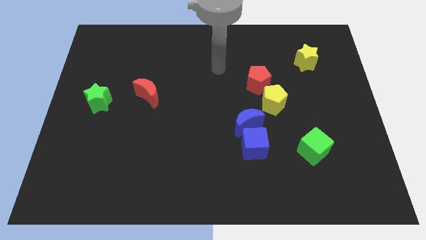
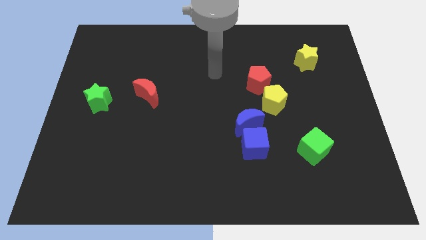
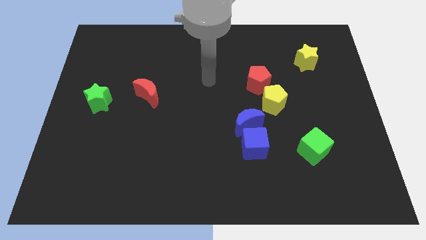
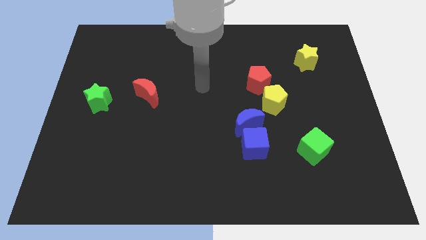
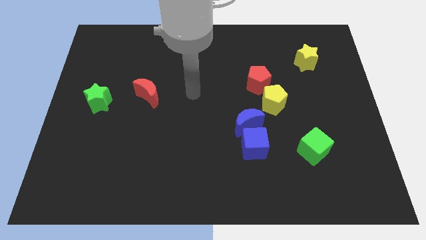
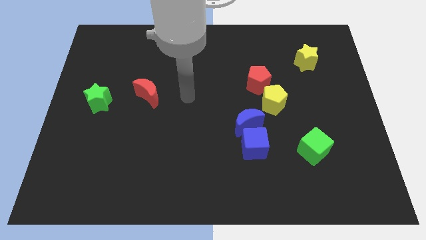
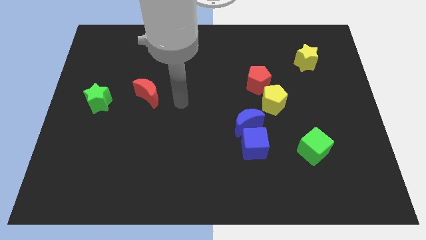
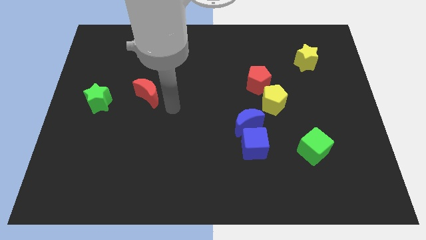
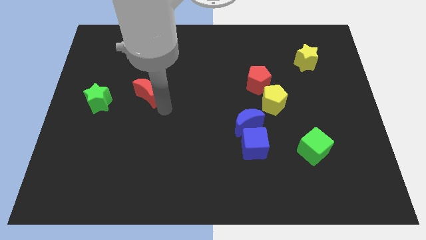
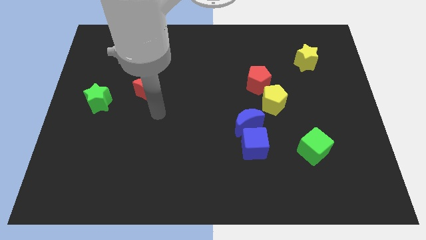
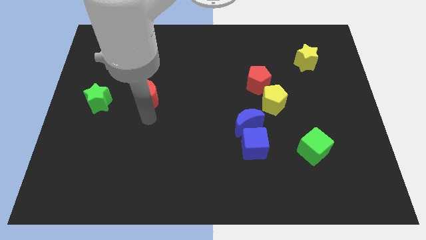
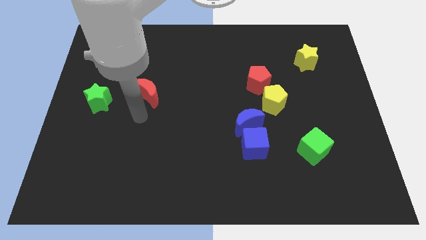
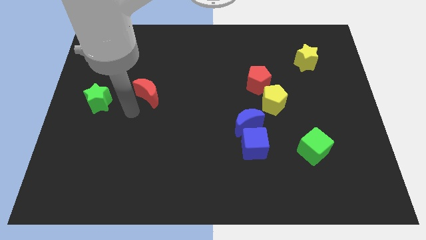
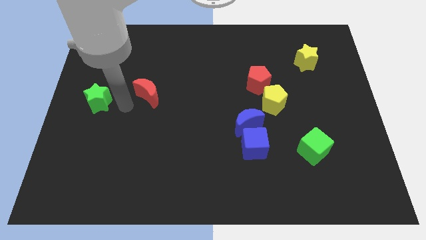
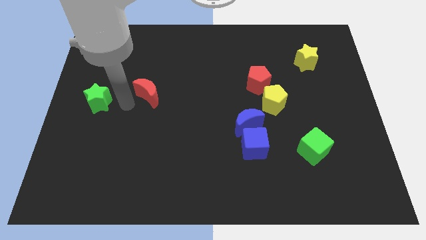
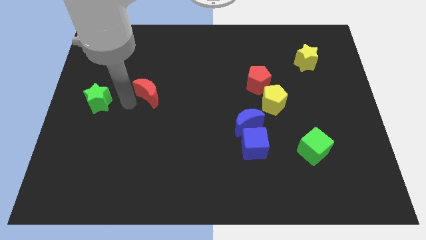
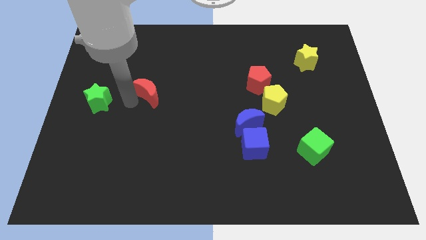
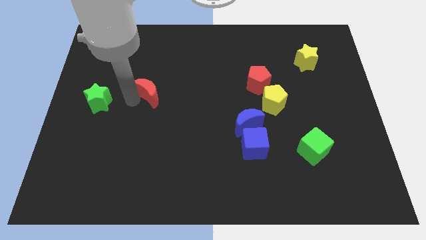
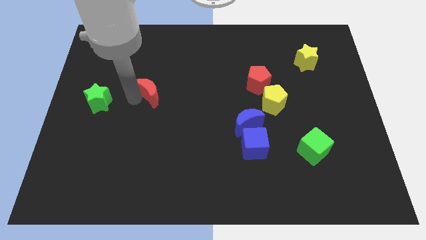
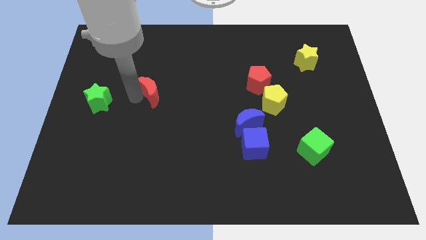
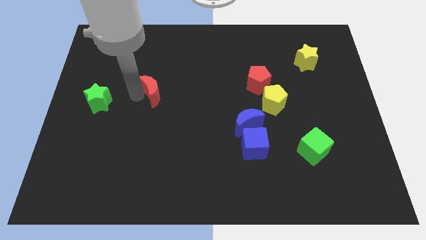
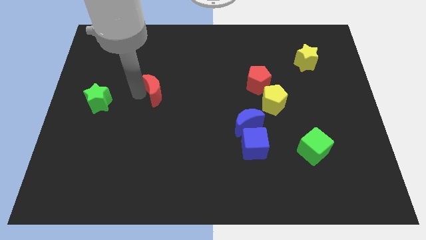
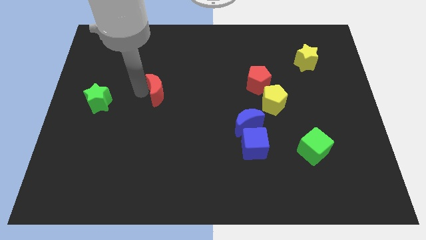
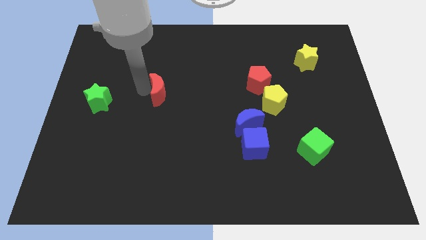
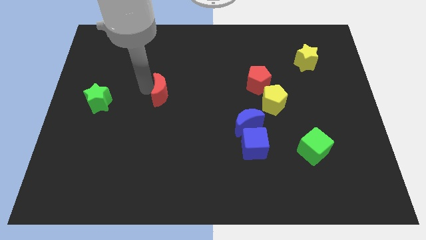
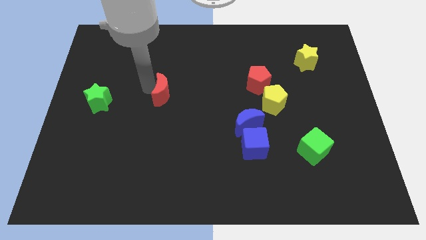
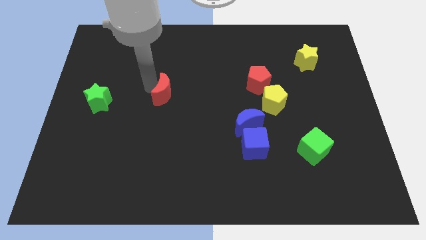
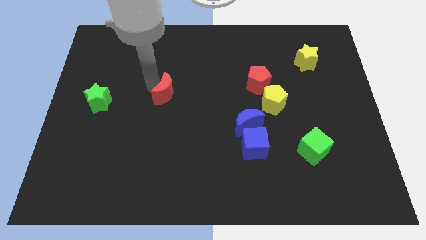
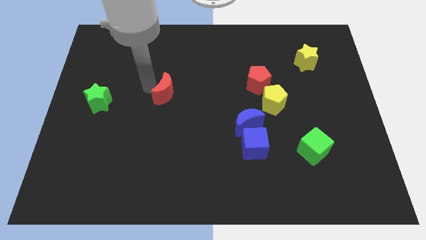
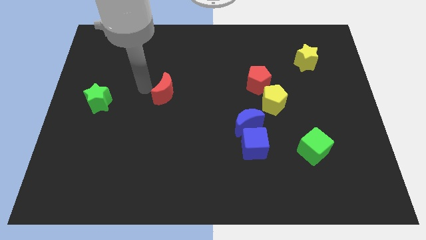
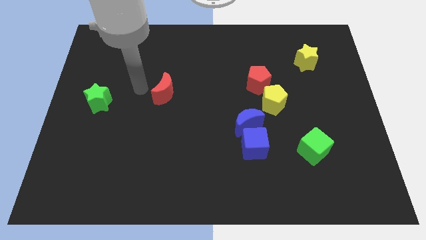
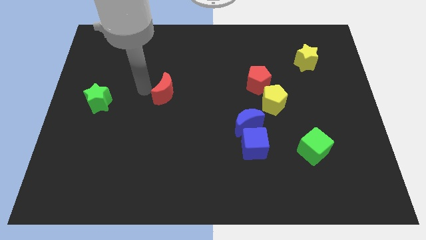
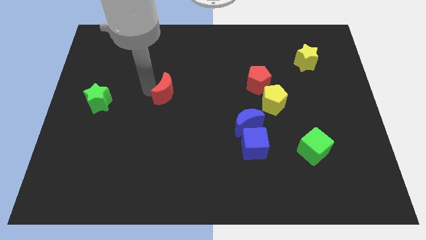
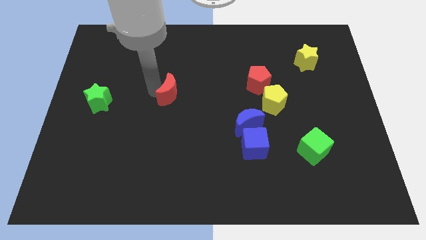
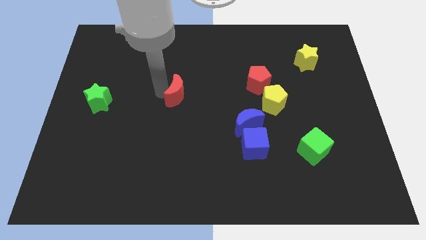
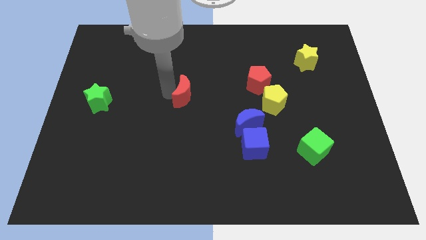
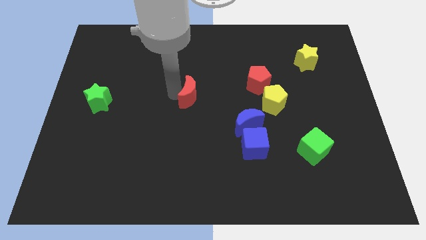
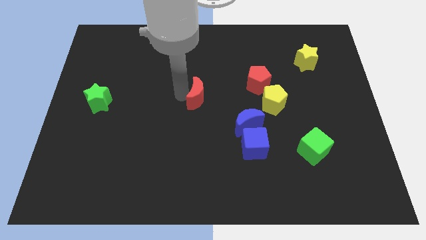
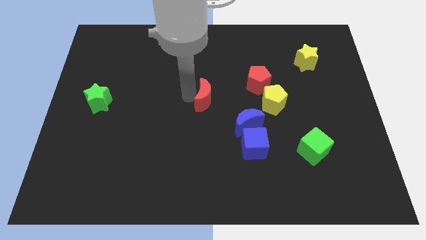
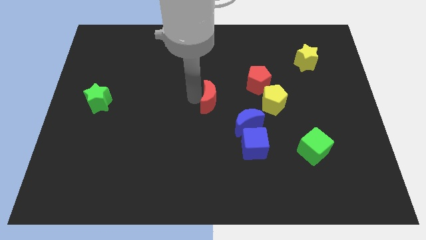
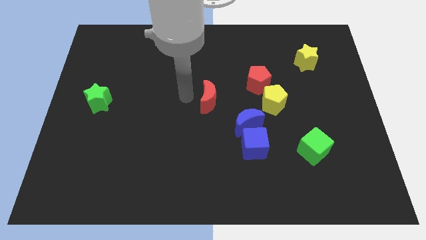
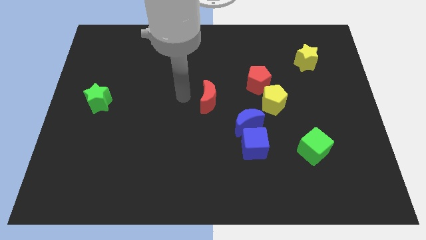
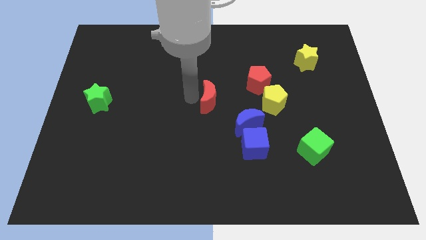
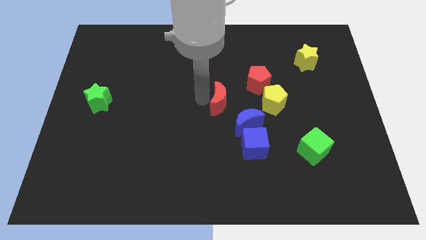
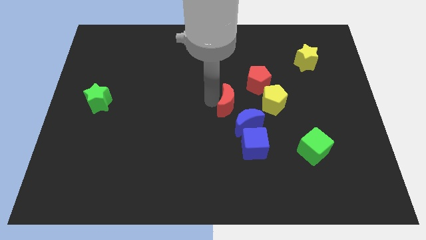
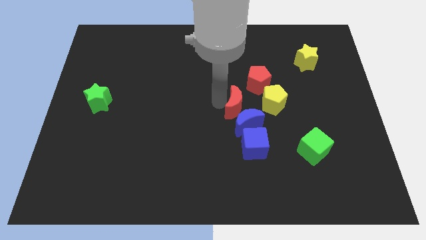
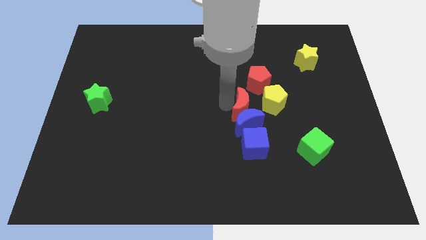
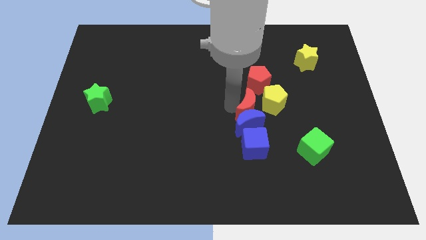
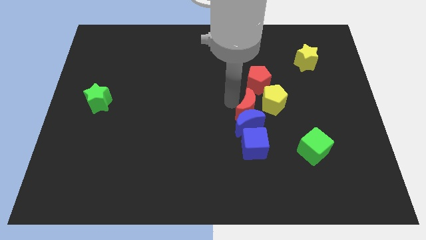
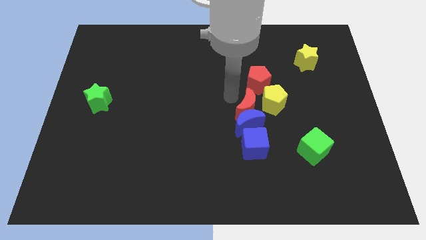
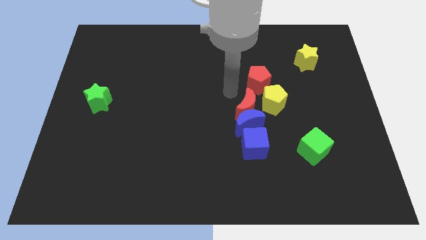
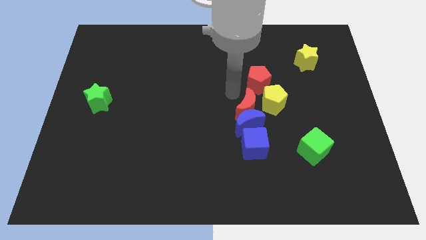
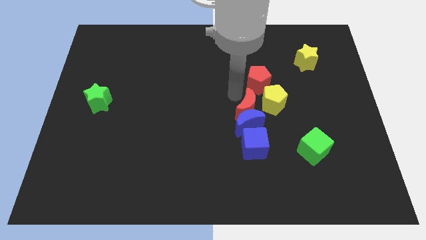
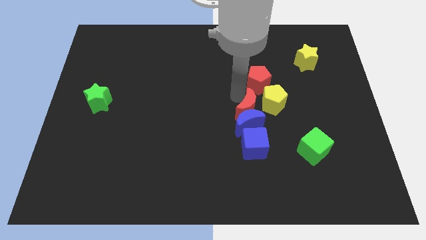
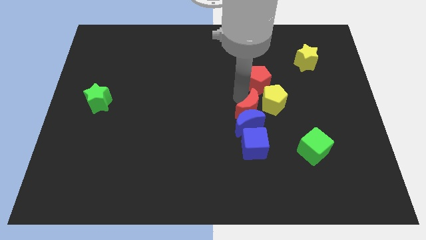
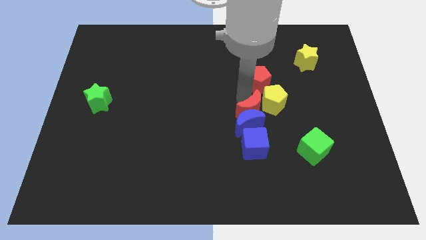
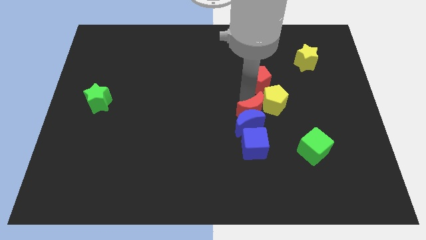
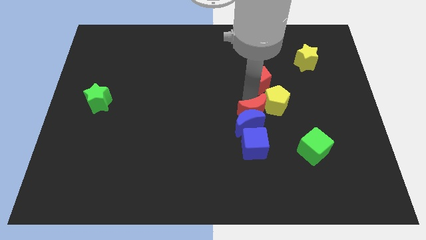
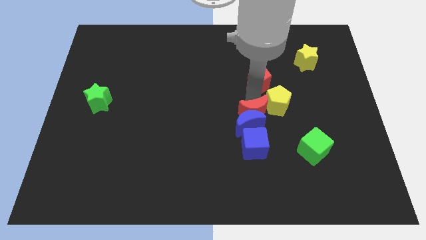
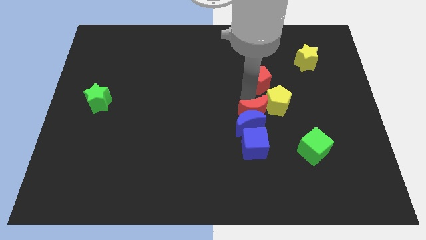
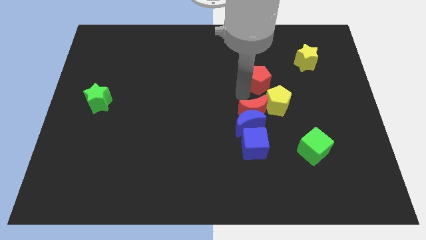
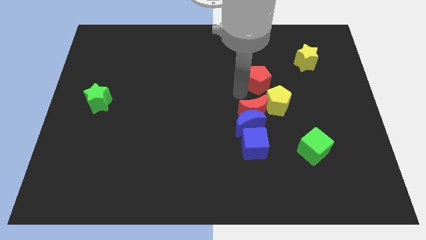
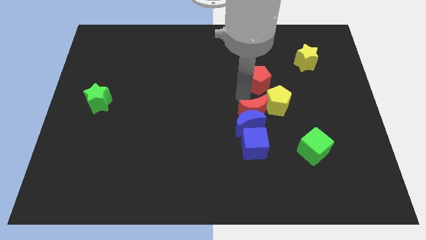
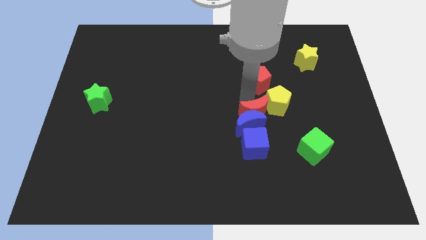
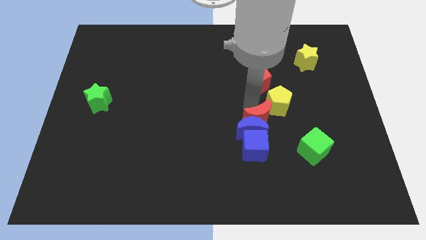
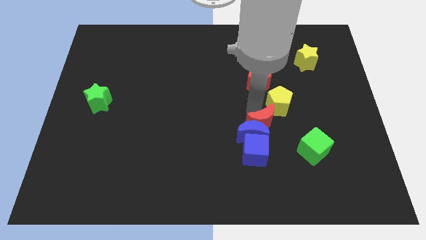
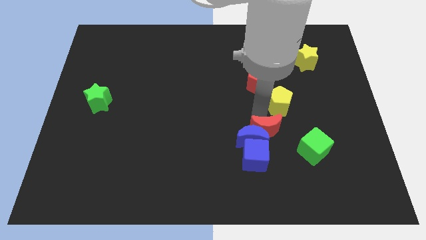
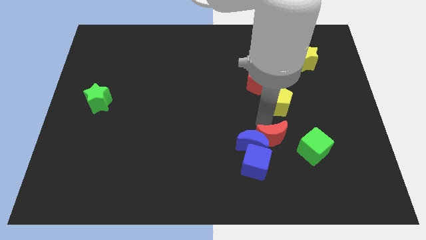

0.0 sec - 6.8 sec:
push the red moon to the bottom right of the blue moon

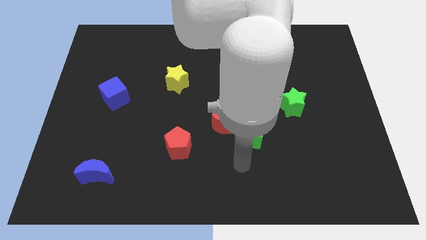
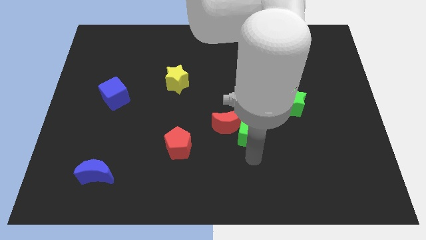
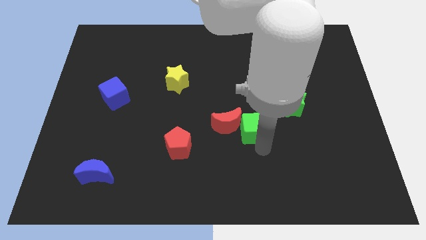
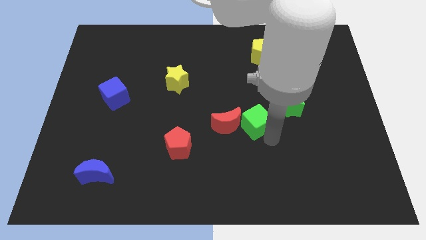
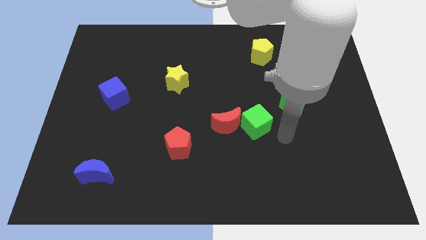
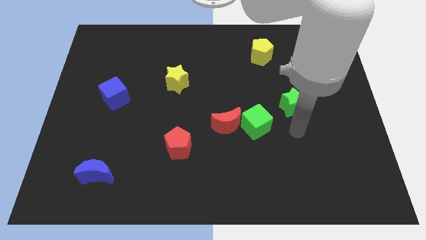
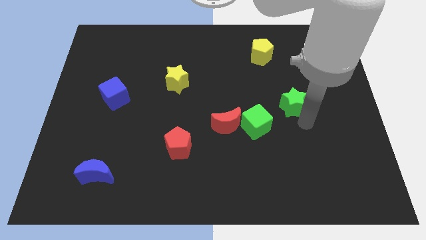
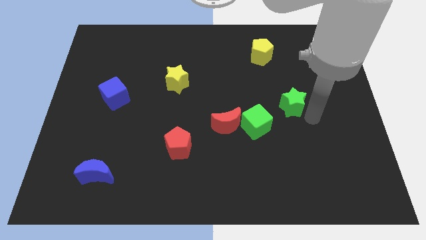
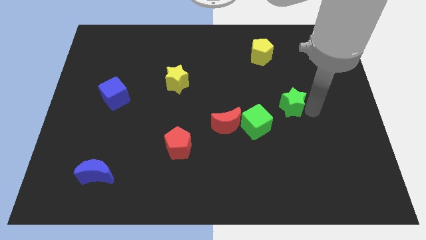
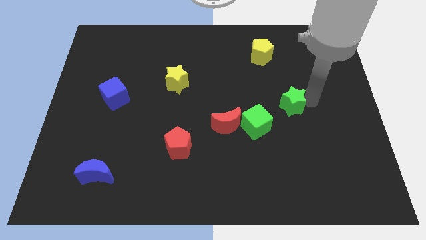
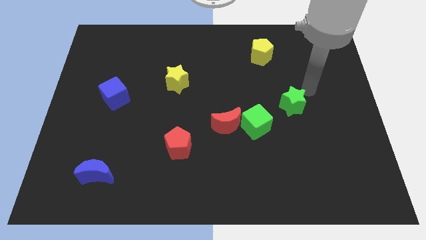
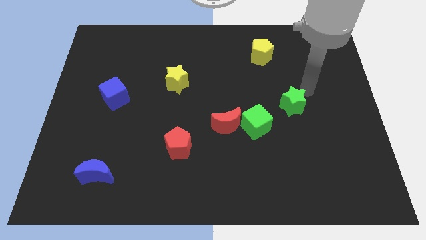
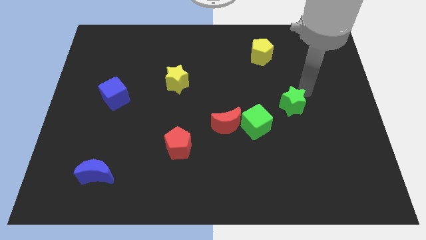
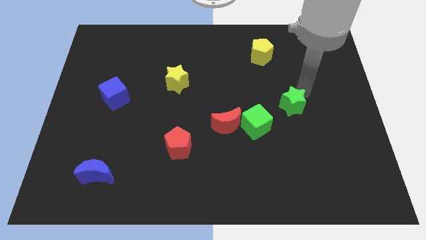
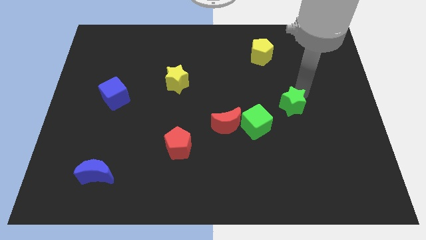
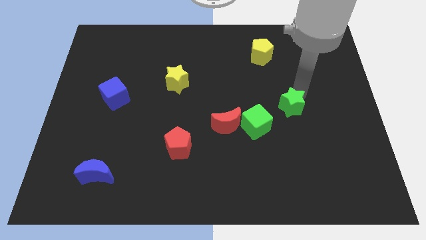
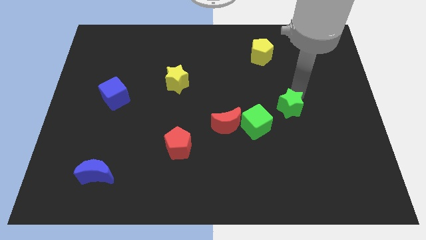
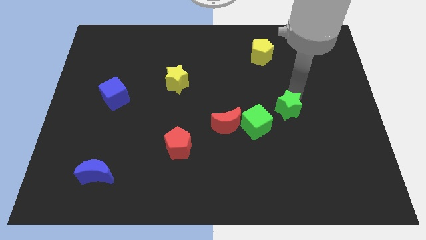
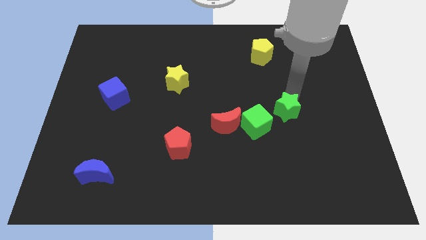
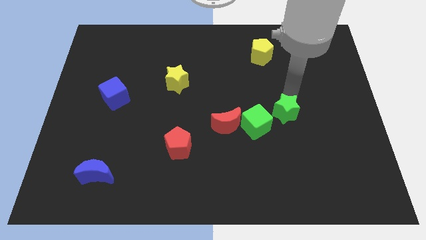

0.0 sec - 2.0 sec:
put the green star right of the red moon
